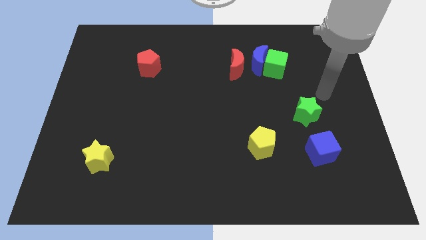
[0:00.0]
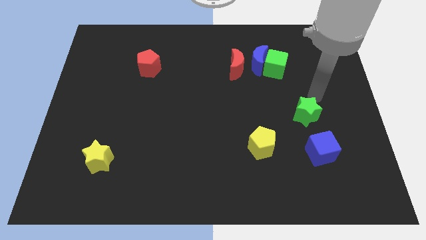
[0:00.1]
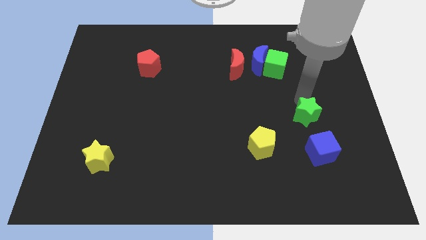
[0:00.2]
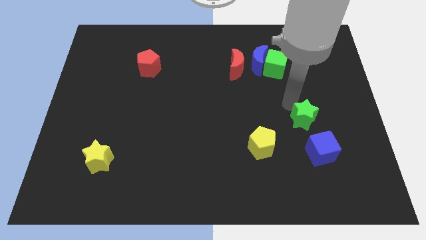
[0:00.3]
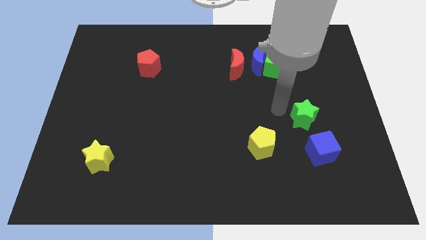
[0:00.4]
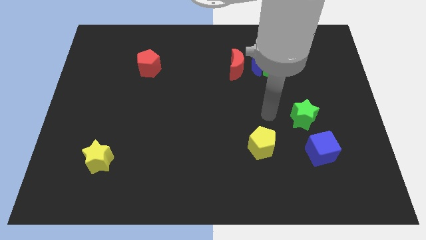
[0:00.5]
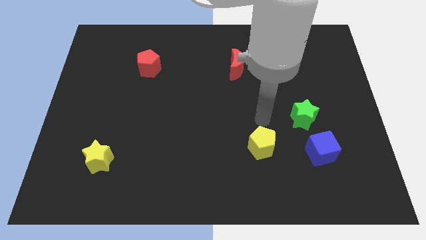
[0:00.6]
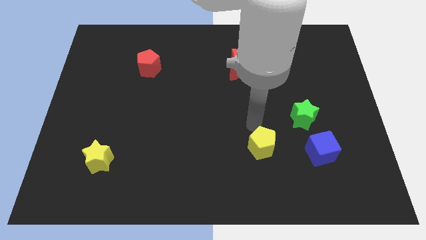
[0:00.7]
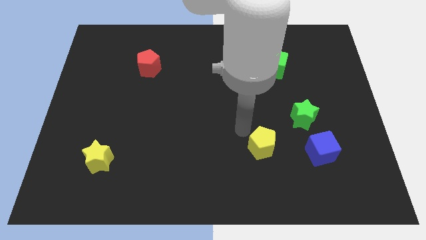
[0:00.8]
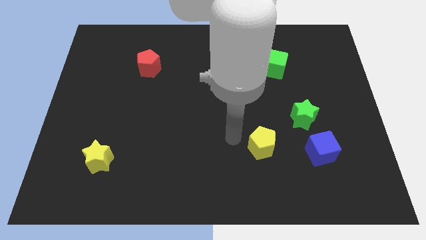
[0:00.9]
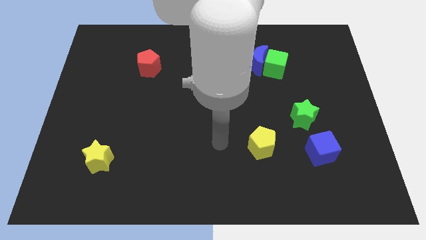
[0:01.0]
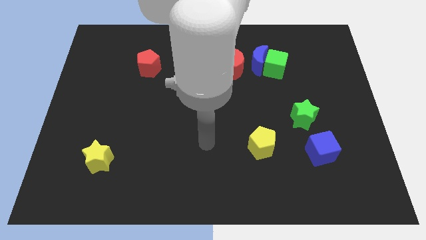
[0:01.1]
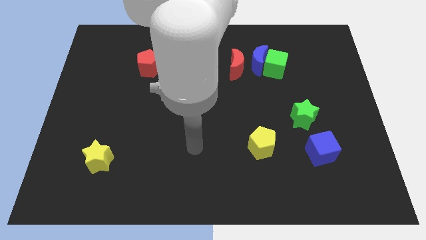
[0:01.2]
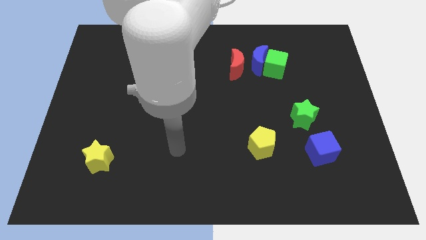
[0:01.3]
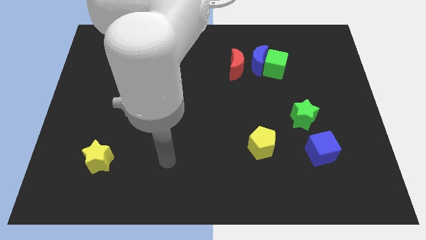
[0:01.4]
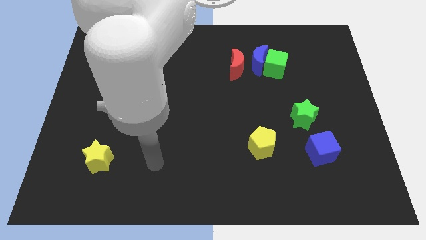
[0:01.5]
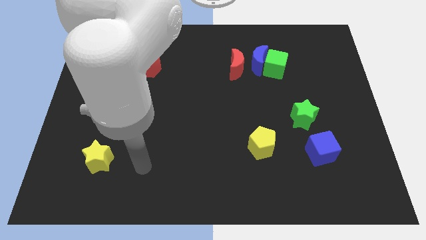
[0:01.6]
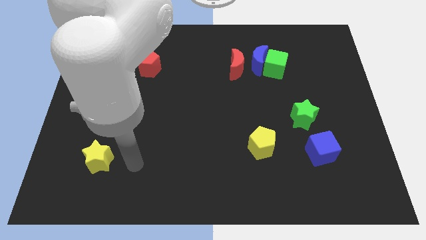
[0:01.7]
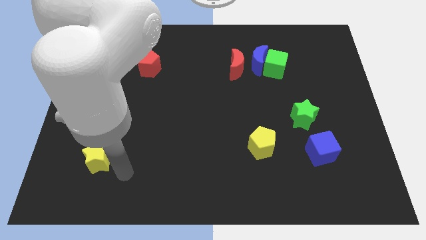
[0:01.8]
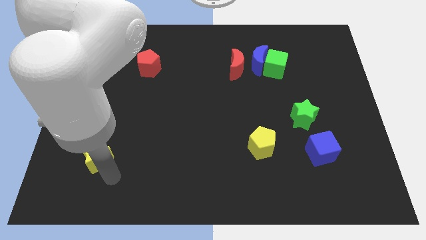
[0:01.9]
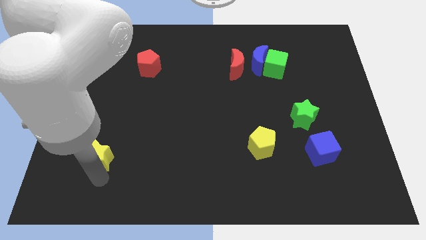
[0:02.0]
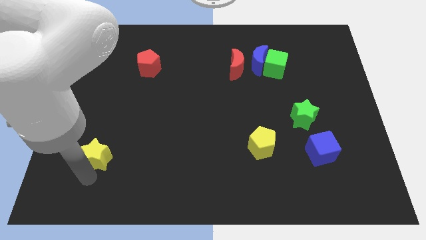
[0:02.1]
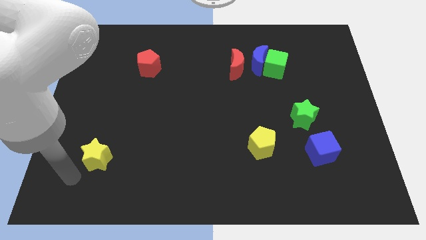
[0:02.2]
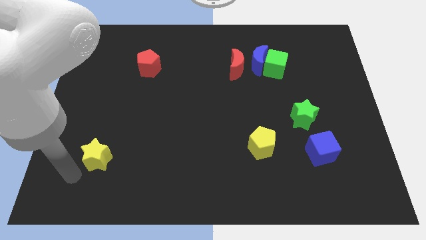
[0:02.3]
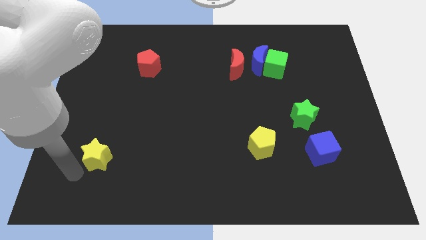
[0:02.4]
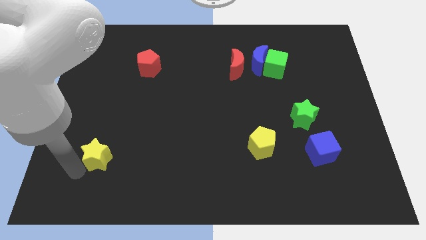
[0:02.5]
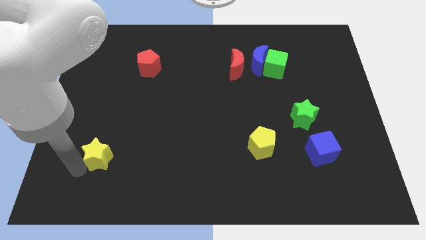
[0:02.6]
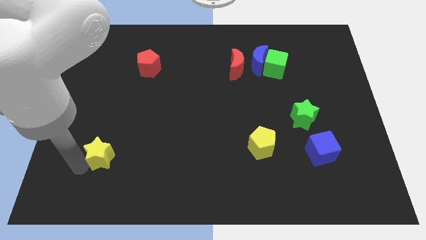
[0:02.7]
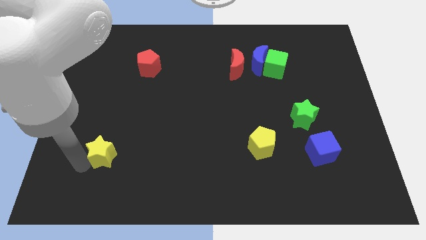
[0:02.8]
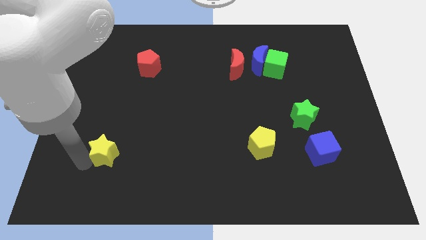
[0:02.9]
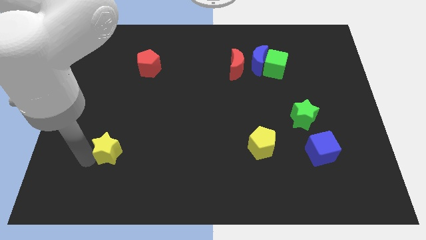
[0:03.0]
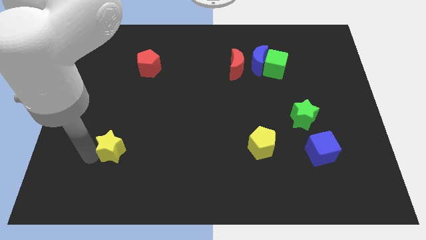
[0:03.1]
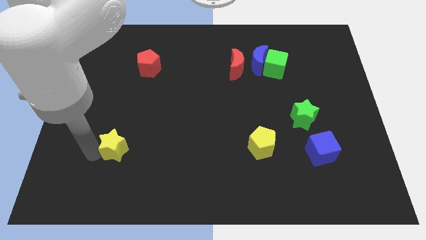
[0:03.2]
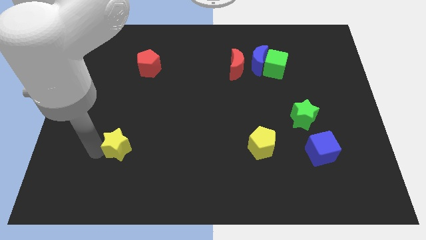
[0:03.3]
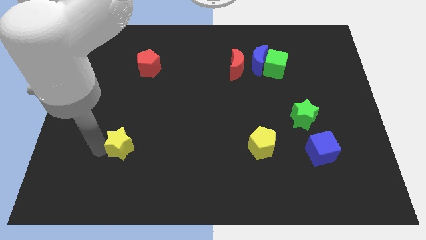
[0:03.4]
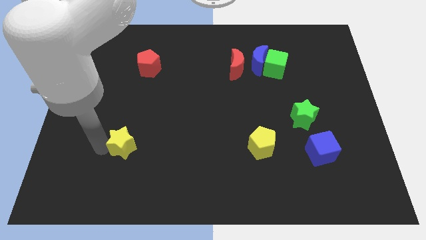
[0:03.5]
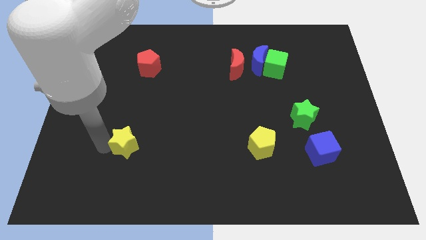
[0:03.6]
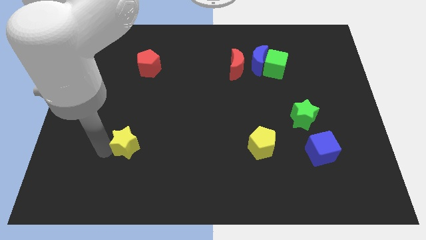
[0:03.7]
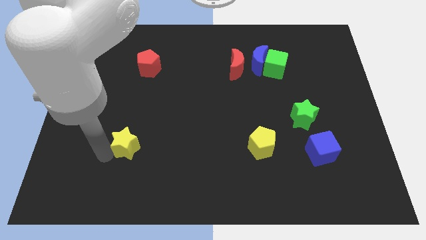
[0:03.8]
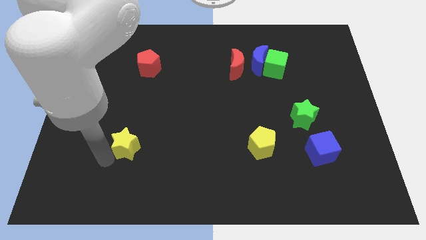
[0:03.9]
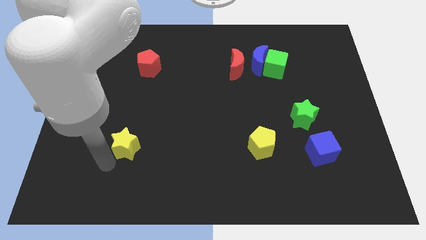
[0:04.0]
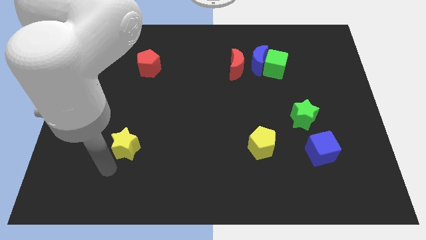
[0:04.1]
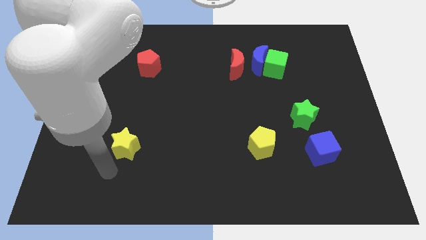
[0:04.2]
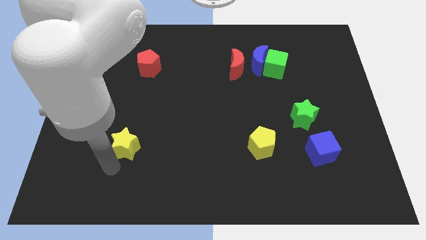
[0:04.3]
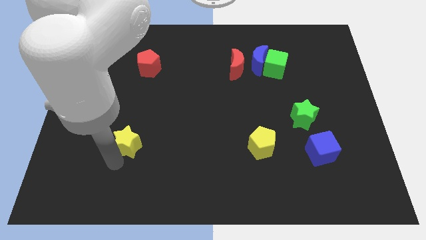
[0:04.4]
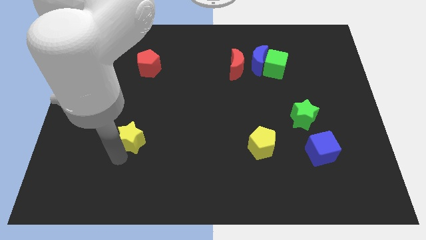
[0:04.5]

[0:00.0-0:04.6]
slide the yellow star diagonally upwards and right slightly

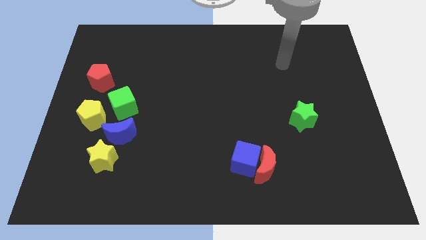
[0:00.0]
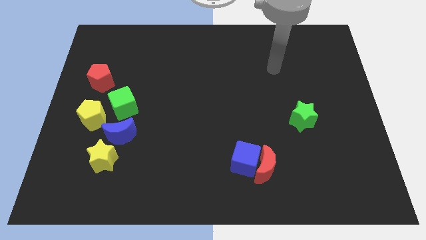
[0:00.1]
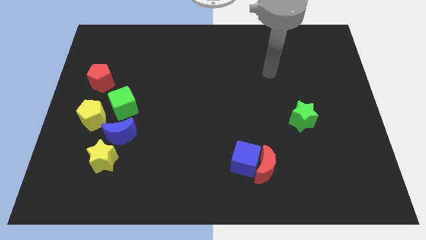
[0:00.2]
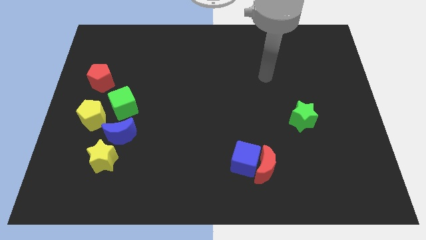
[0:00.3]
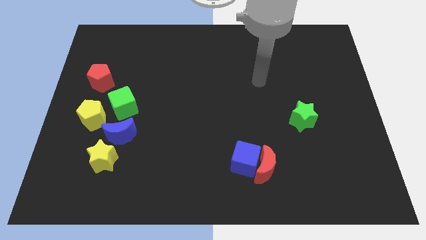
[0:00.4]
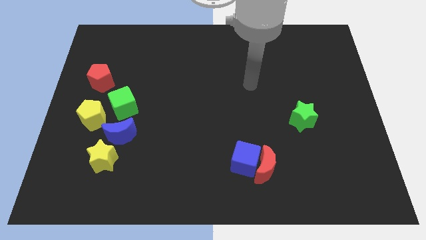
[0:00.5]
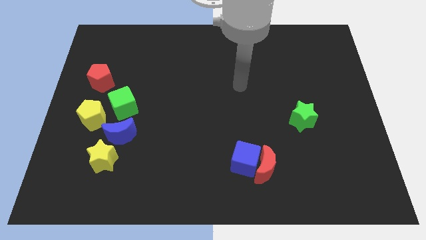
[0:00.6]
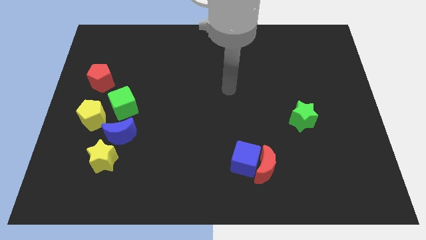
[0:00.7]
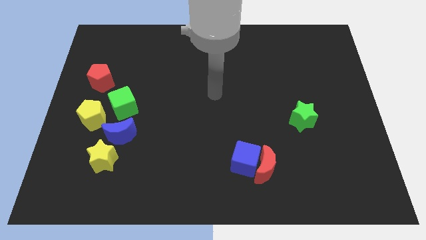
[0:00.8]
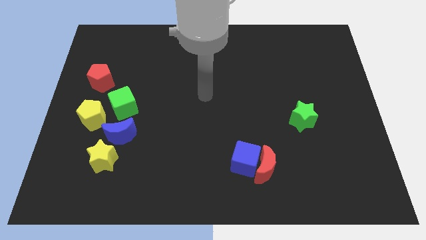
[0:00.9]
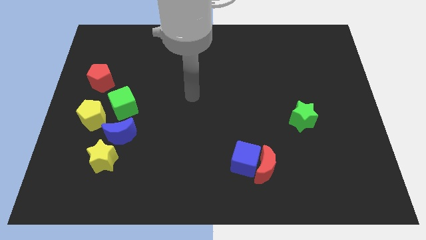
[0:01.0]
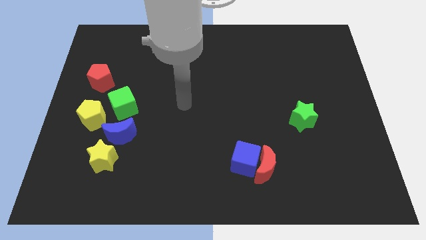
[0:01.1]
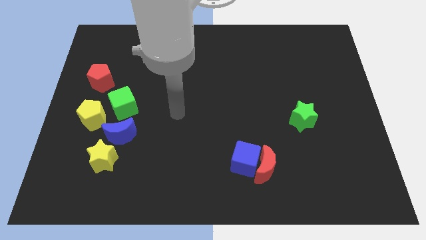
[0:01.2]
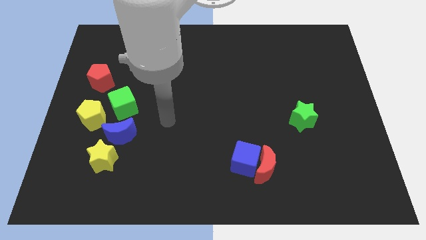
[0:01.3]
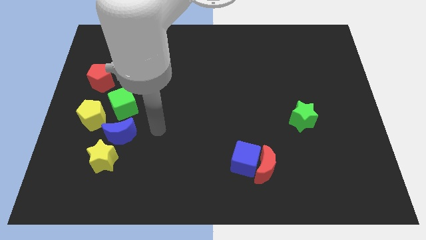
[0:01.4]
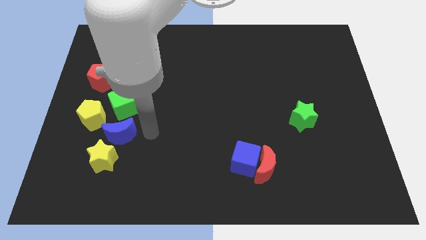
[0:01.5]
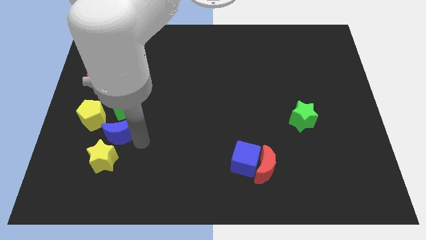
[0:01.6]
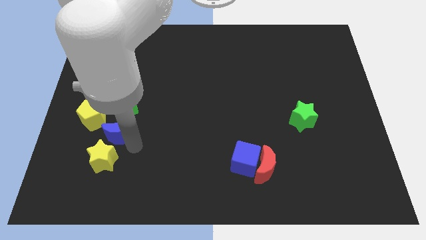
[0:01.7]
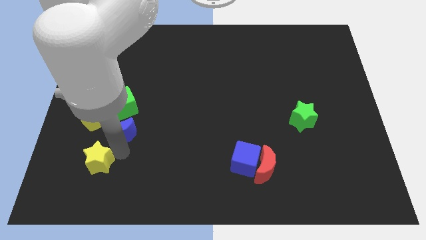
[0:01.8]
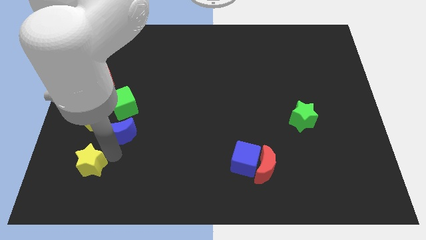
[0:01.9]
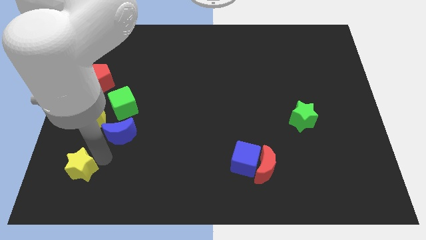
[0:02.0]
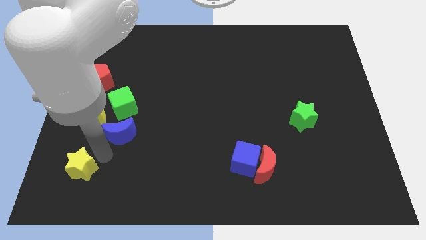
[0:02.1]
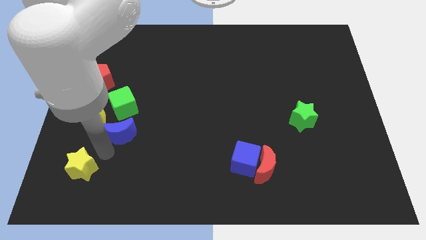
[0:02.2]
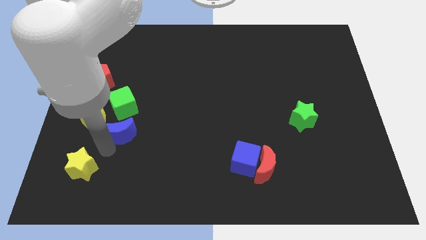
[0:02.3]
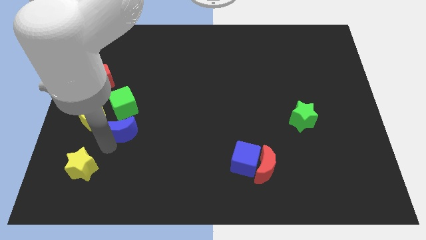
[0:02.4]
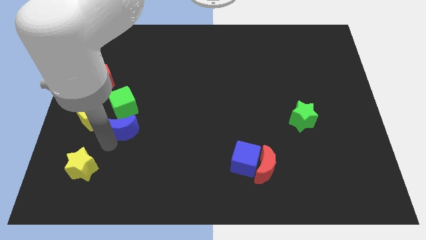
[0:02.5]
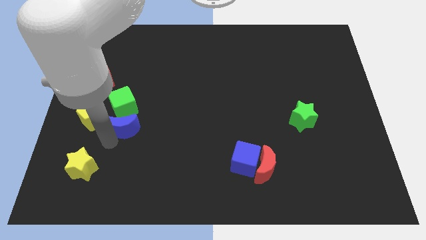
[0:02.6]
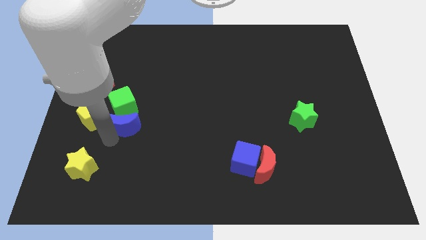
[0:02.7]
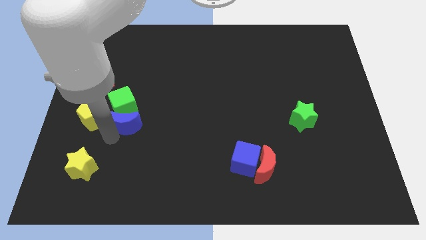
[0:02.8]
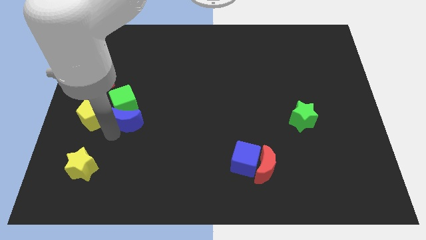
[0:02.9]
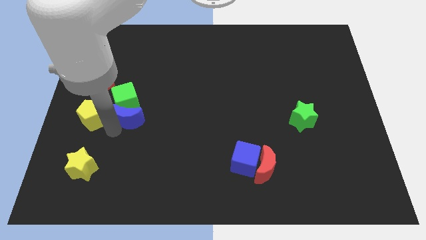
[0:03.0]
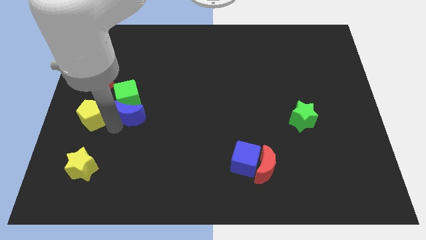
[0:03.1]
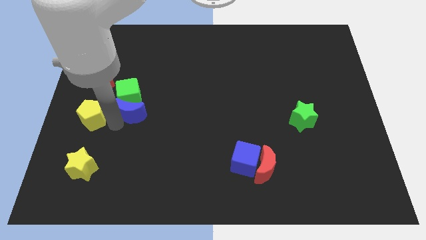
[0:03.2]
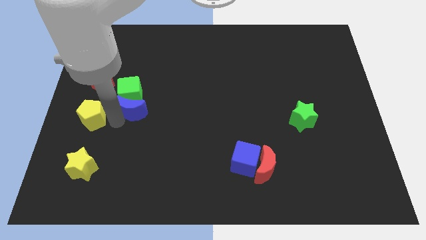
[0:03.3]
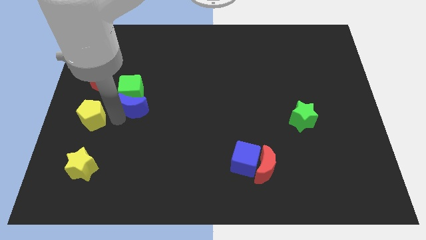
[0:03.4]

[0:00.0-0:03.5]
slightly push the blue moon up
